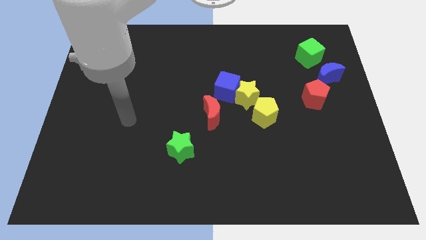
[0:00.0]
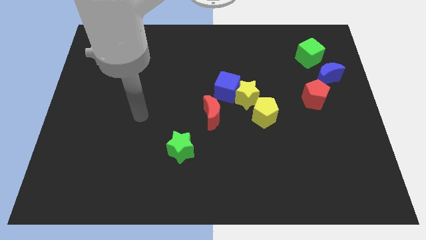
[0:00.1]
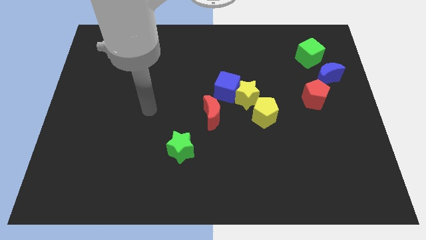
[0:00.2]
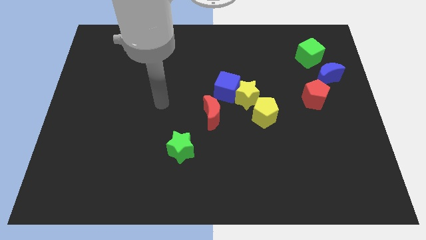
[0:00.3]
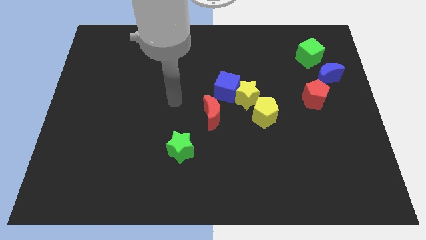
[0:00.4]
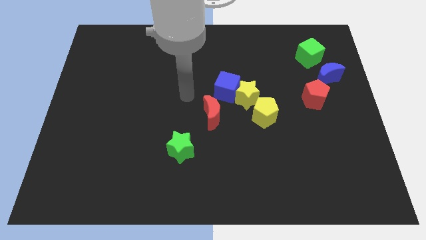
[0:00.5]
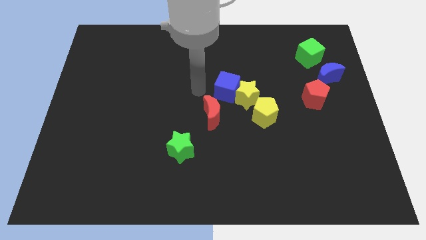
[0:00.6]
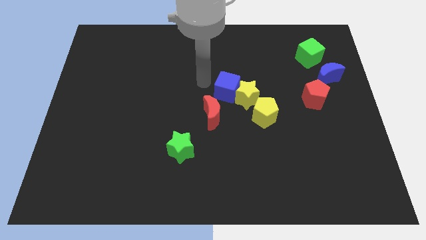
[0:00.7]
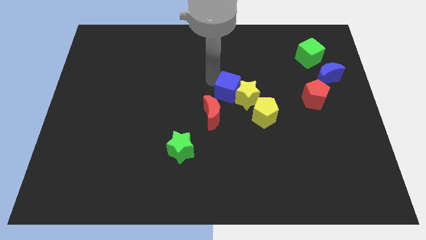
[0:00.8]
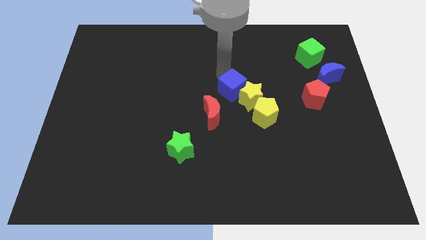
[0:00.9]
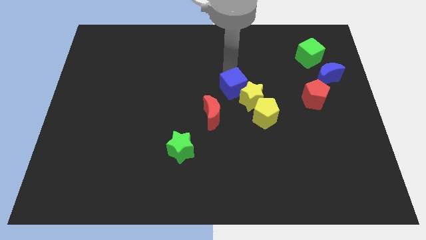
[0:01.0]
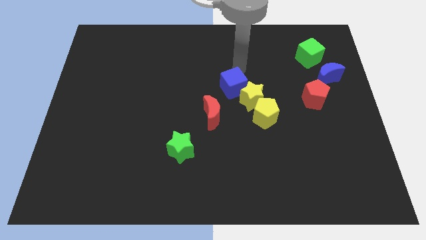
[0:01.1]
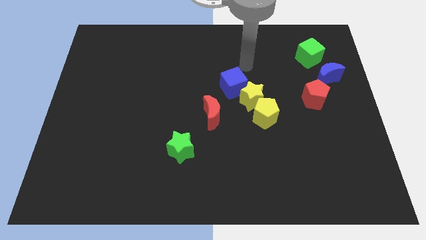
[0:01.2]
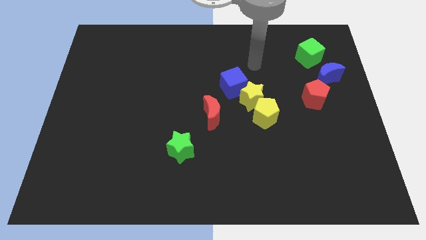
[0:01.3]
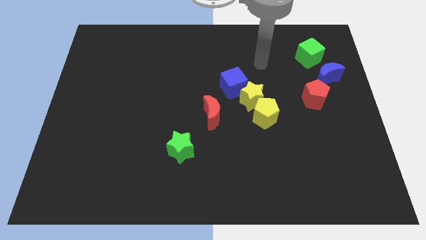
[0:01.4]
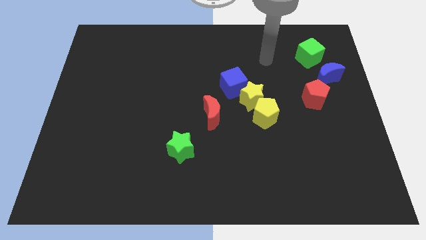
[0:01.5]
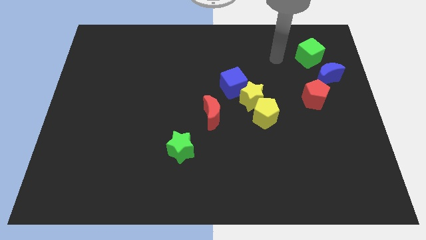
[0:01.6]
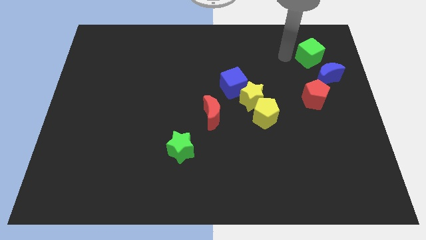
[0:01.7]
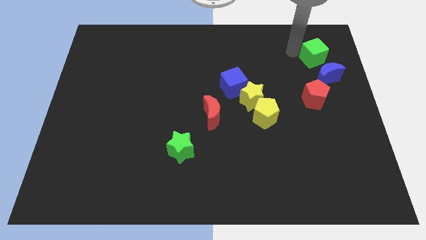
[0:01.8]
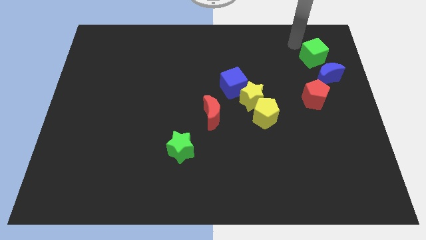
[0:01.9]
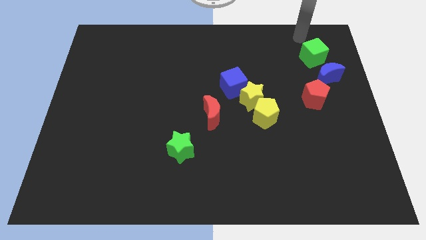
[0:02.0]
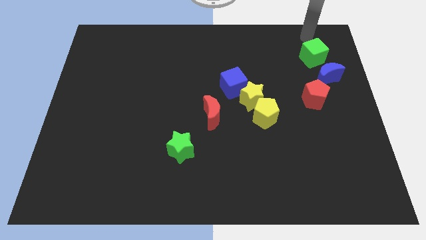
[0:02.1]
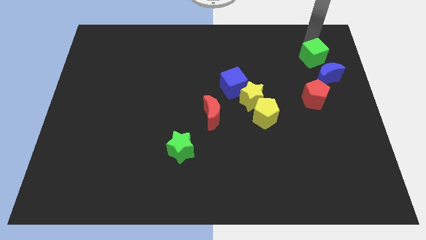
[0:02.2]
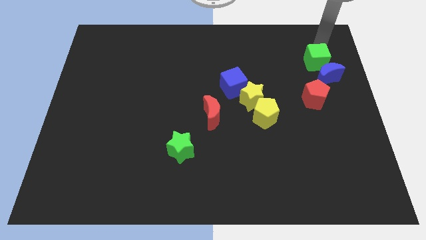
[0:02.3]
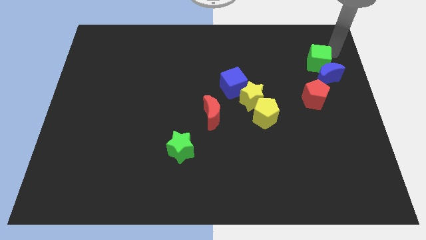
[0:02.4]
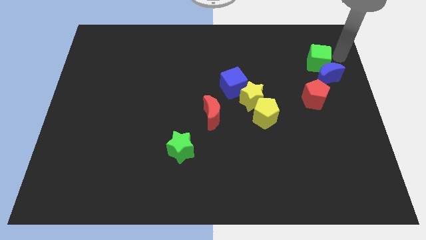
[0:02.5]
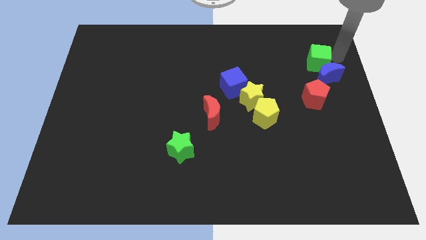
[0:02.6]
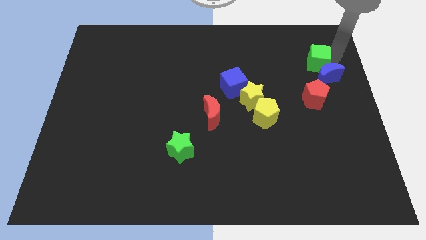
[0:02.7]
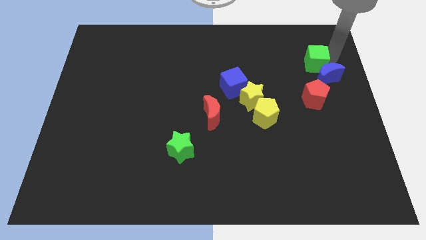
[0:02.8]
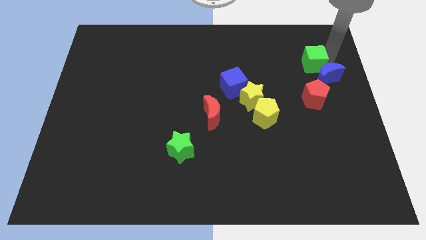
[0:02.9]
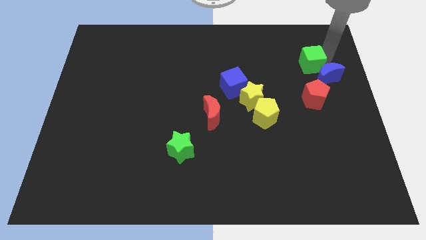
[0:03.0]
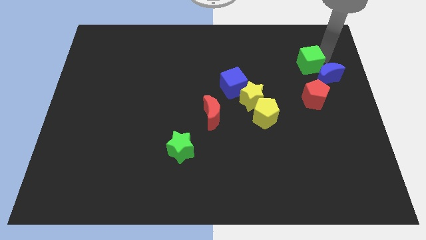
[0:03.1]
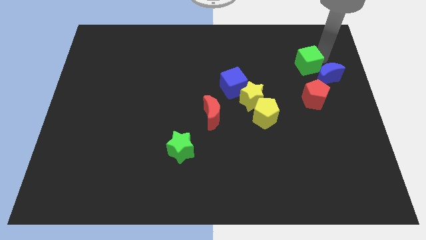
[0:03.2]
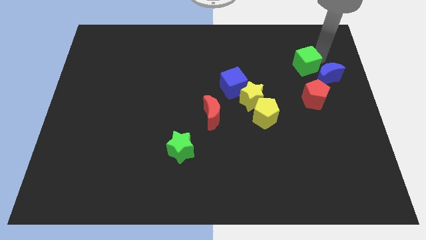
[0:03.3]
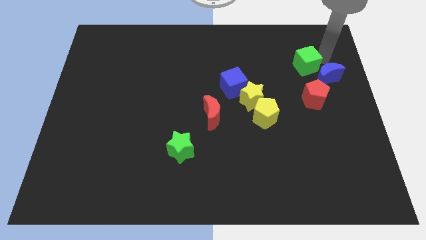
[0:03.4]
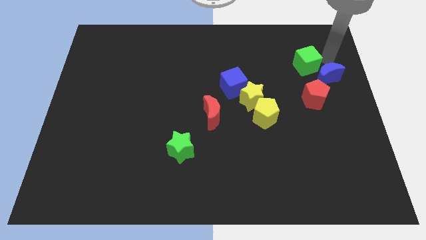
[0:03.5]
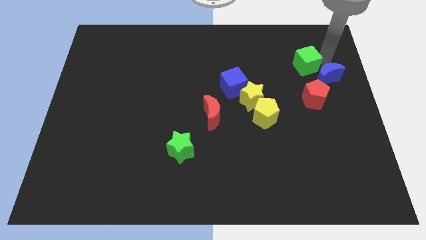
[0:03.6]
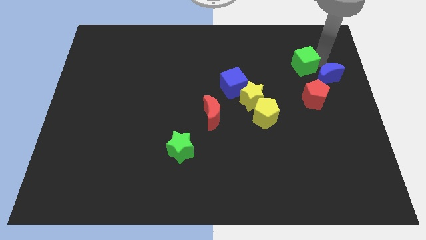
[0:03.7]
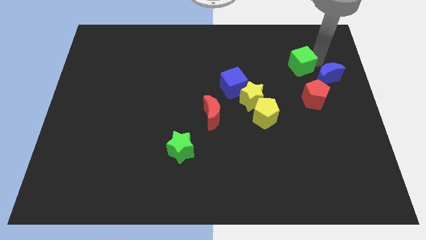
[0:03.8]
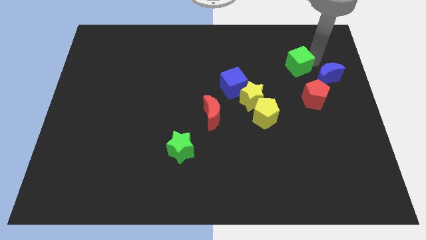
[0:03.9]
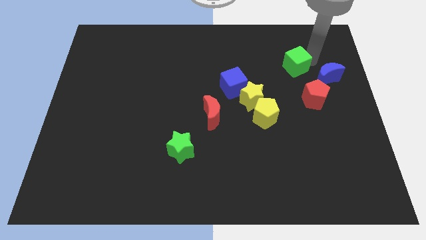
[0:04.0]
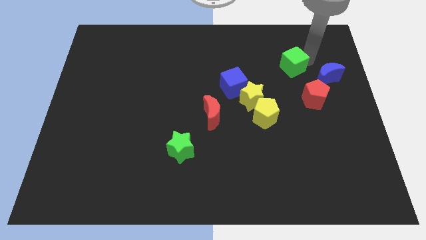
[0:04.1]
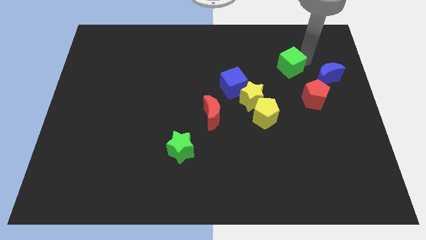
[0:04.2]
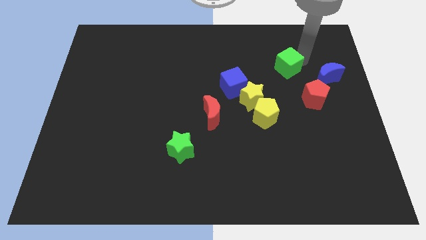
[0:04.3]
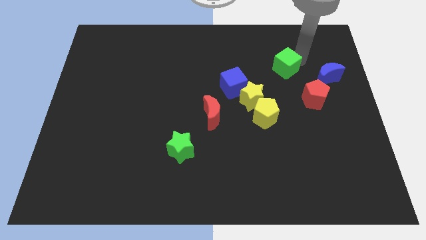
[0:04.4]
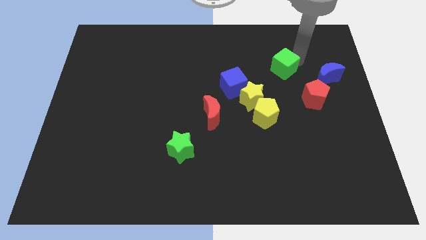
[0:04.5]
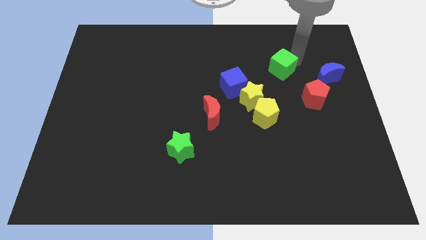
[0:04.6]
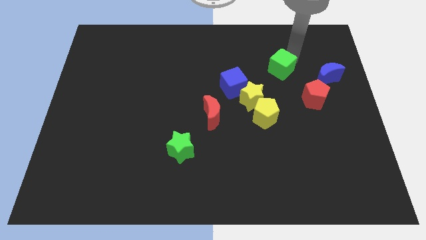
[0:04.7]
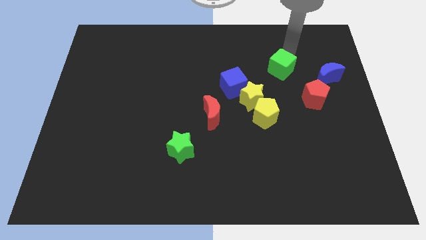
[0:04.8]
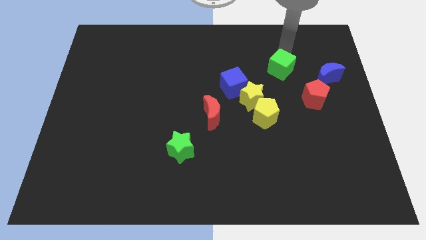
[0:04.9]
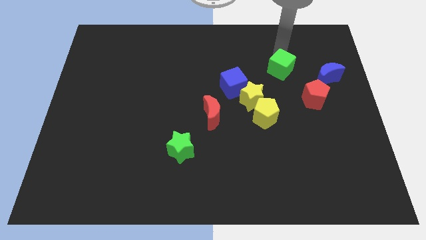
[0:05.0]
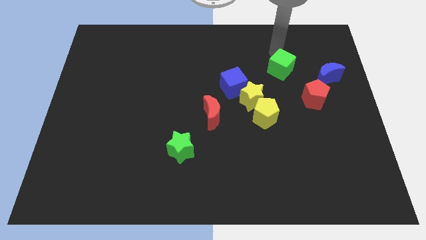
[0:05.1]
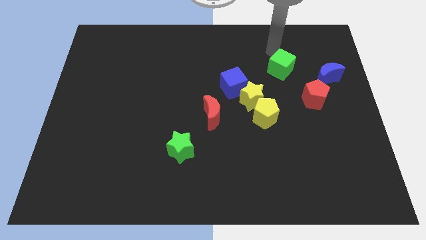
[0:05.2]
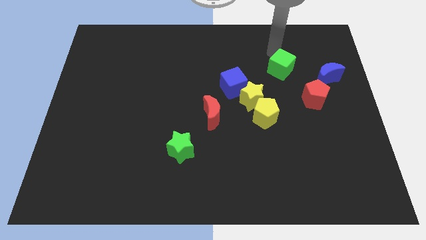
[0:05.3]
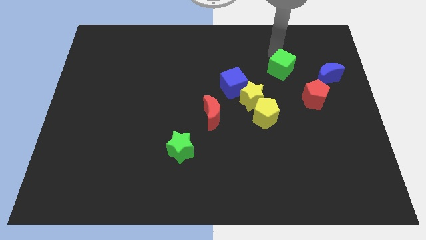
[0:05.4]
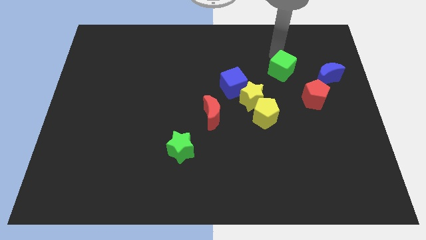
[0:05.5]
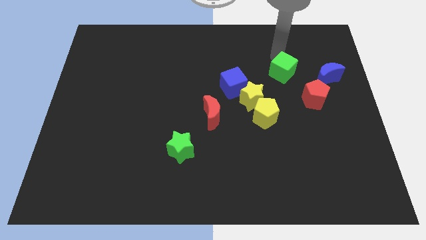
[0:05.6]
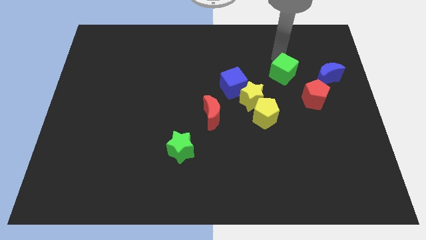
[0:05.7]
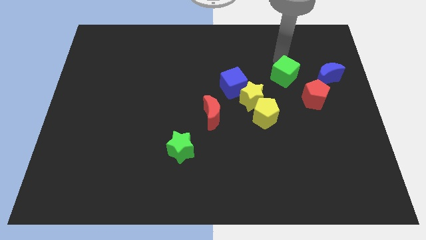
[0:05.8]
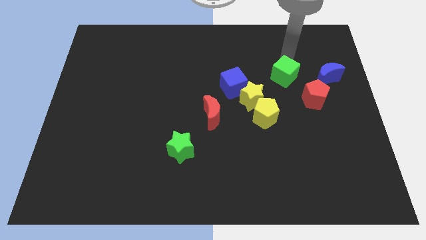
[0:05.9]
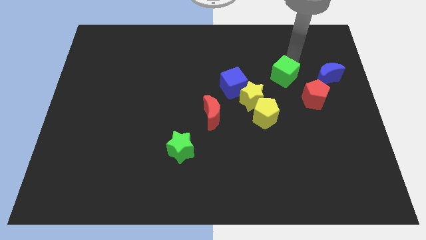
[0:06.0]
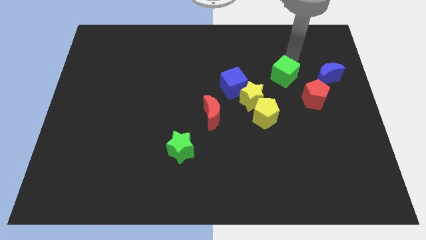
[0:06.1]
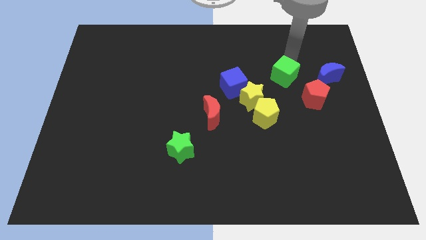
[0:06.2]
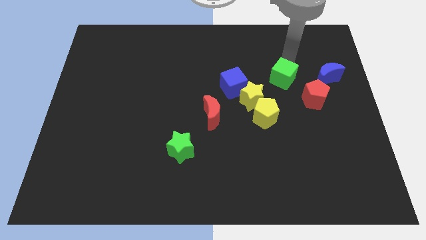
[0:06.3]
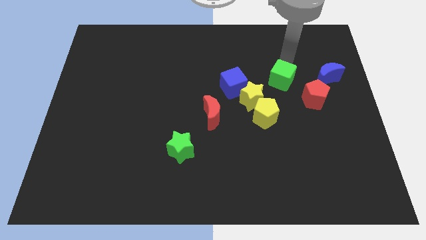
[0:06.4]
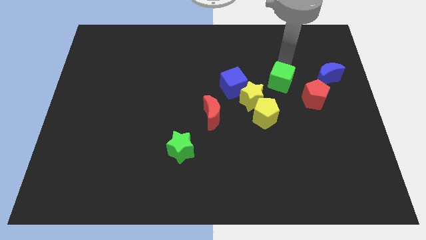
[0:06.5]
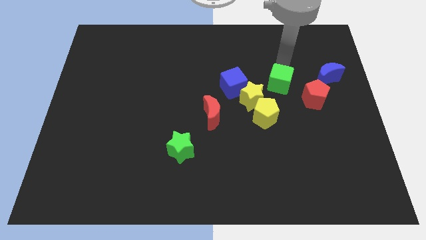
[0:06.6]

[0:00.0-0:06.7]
slide the green cube left of the red pentagon
